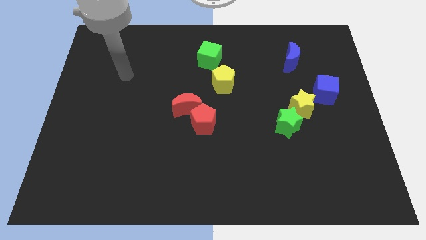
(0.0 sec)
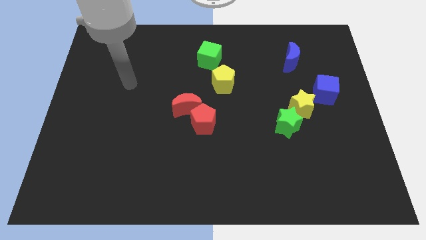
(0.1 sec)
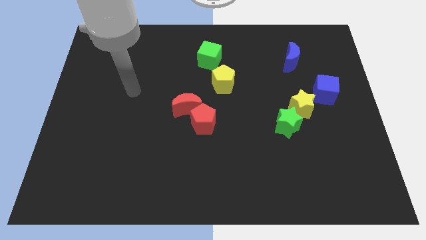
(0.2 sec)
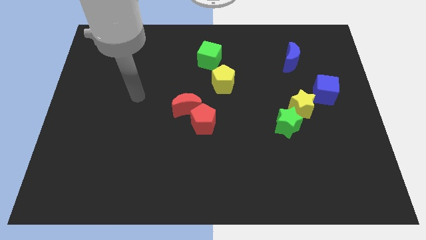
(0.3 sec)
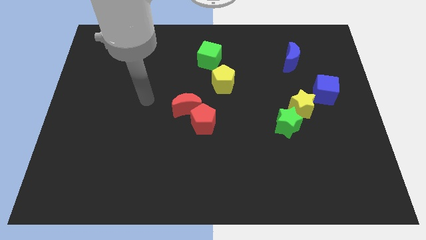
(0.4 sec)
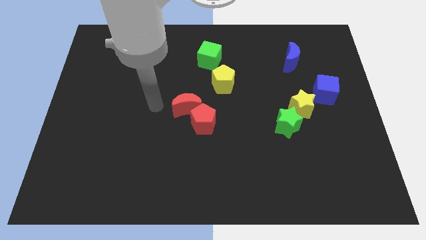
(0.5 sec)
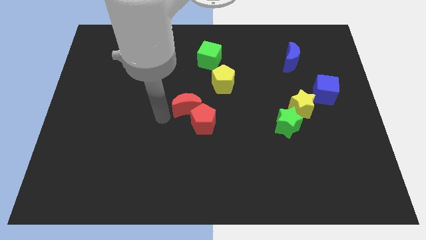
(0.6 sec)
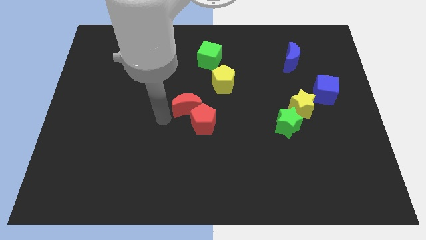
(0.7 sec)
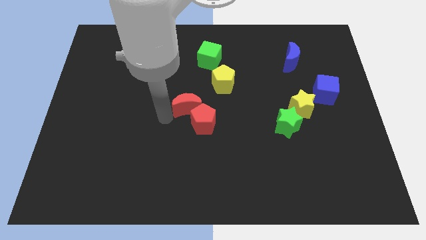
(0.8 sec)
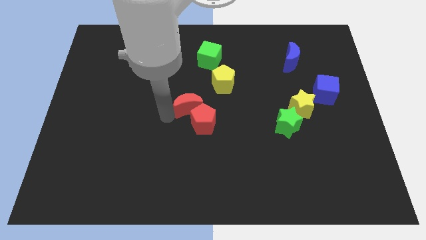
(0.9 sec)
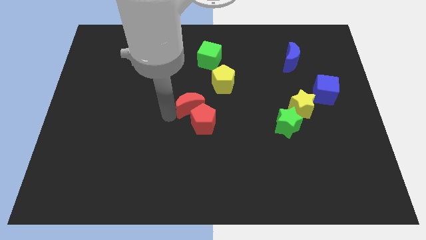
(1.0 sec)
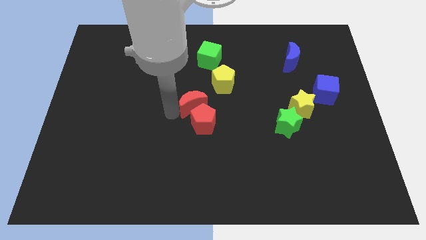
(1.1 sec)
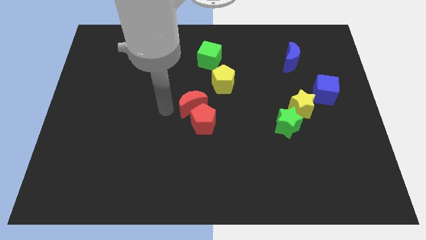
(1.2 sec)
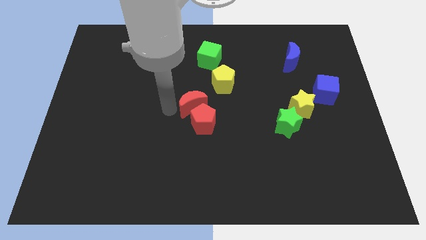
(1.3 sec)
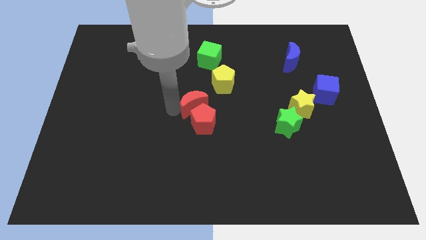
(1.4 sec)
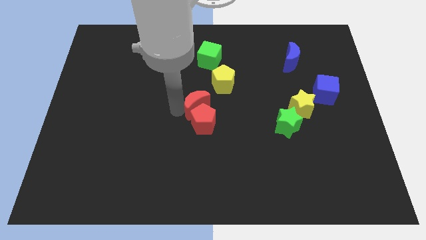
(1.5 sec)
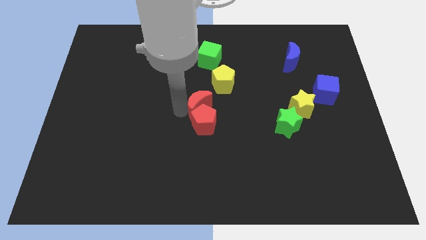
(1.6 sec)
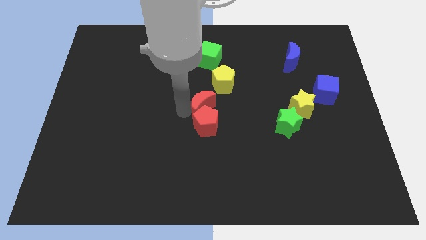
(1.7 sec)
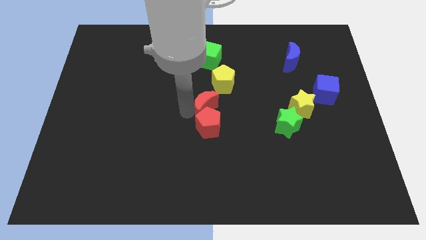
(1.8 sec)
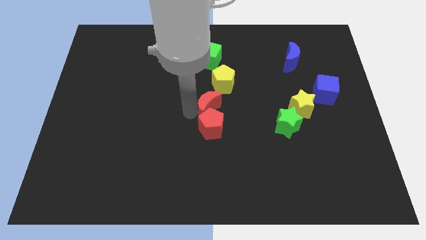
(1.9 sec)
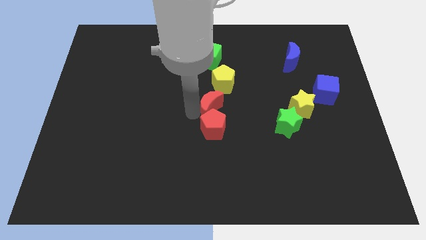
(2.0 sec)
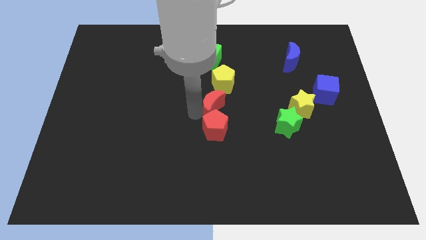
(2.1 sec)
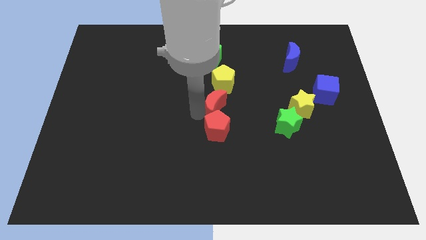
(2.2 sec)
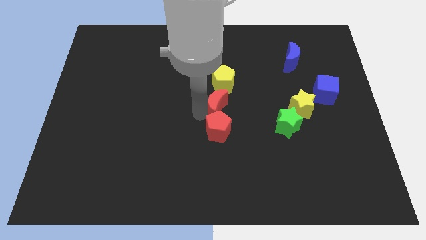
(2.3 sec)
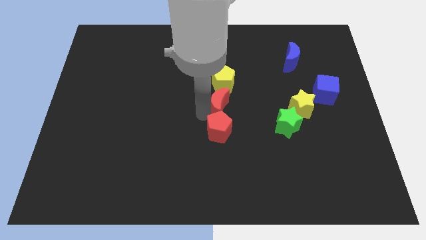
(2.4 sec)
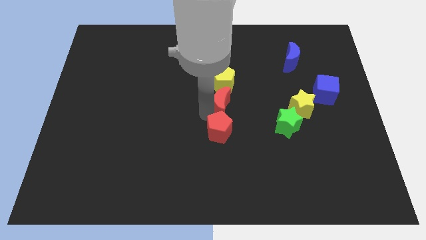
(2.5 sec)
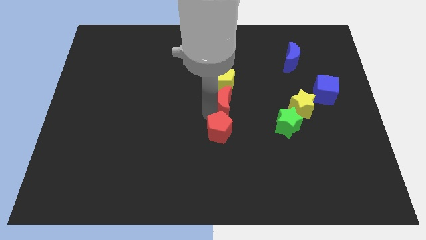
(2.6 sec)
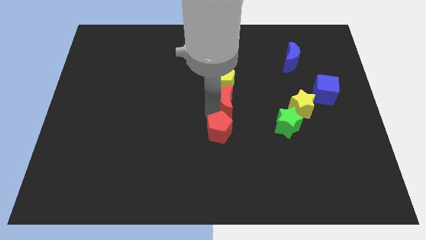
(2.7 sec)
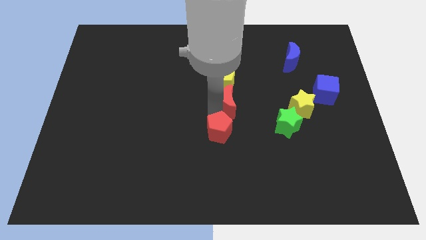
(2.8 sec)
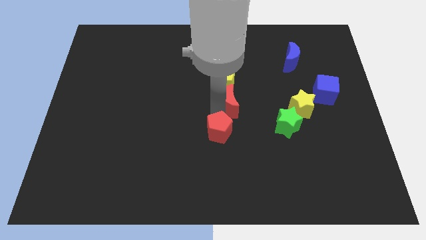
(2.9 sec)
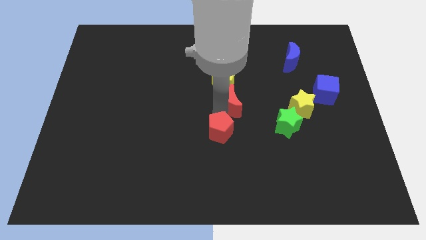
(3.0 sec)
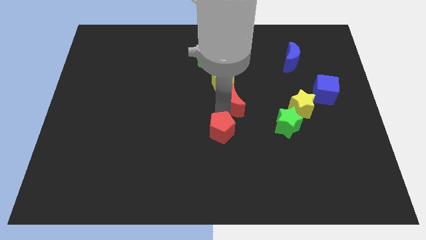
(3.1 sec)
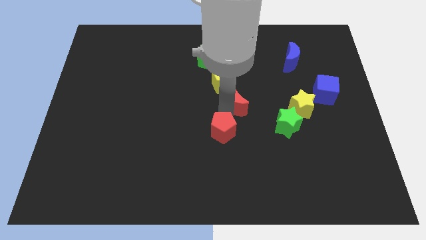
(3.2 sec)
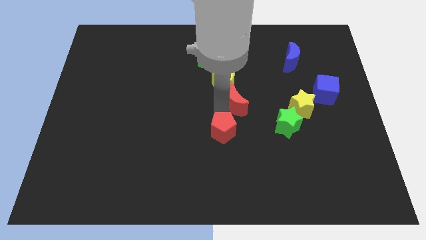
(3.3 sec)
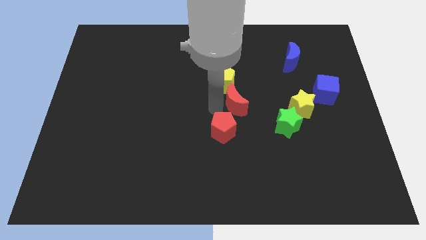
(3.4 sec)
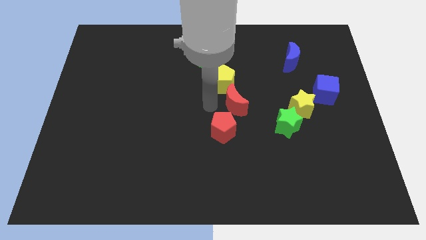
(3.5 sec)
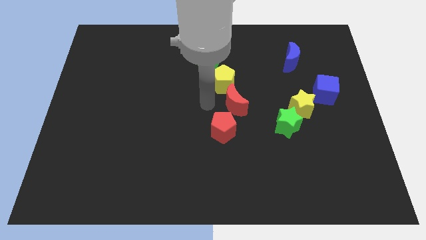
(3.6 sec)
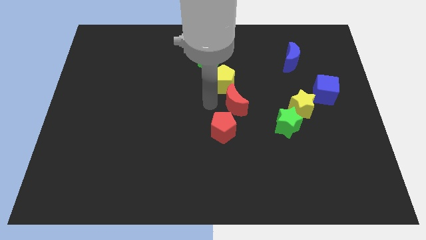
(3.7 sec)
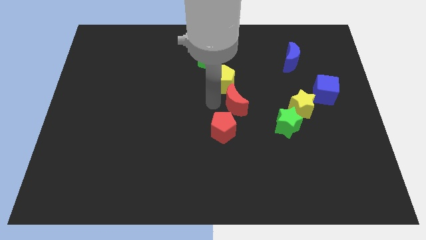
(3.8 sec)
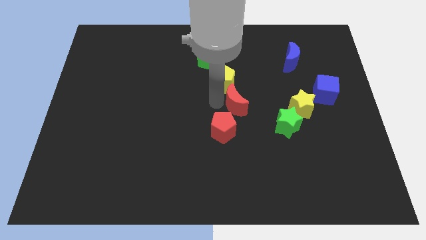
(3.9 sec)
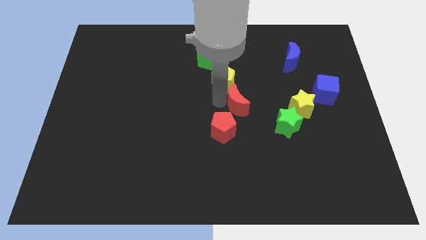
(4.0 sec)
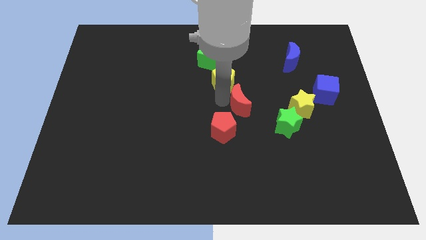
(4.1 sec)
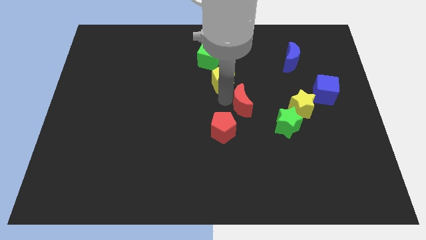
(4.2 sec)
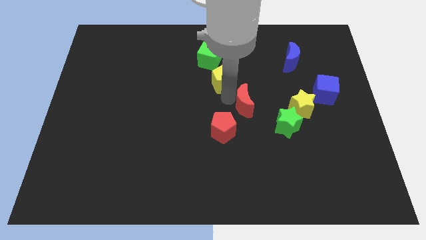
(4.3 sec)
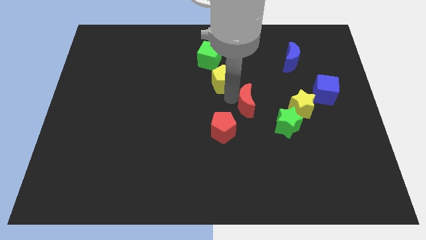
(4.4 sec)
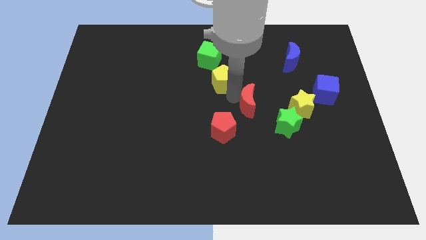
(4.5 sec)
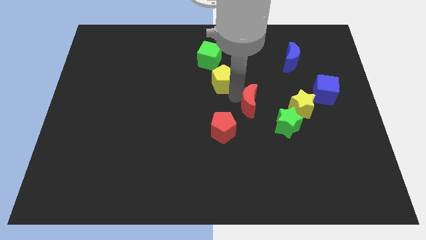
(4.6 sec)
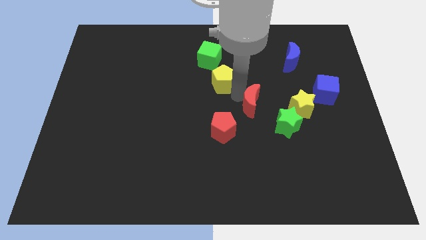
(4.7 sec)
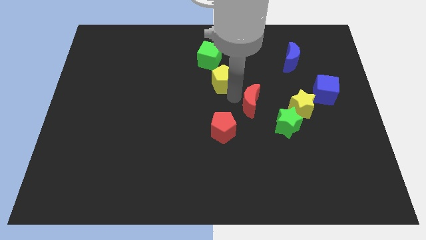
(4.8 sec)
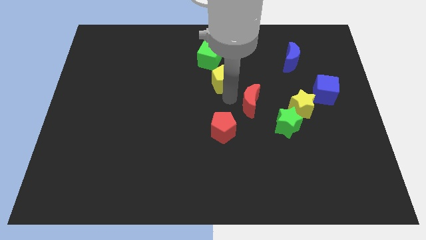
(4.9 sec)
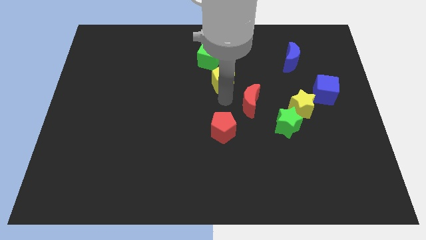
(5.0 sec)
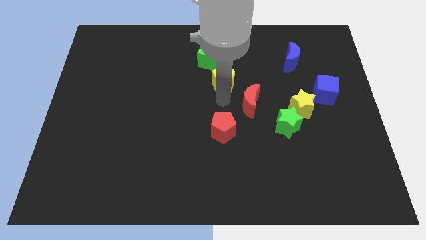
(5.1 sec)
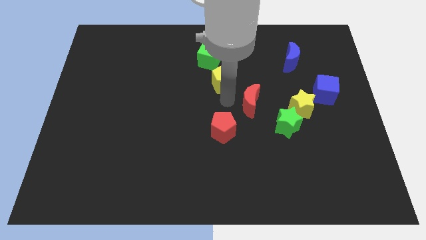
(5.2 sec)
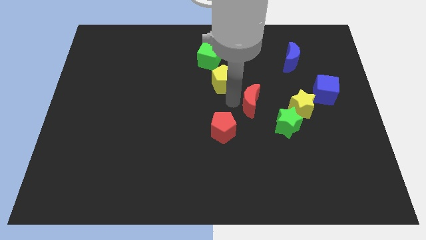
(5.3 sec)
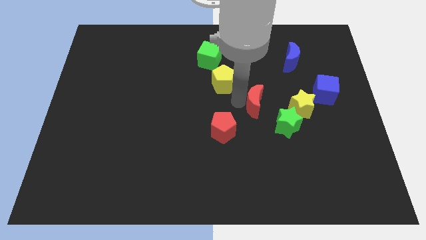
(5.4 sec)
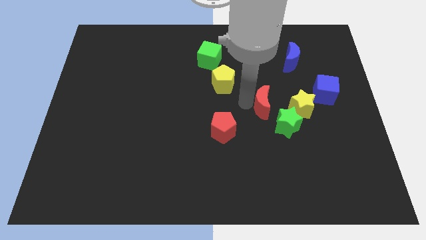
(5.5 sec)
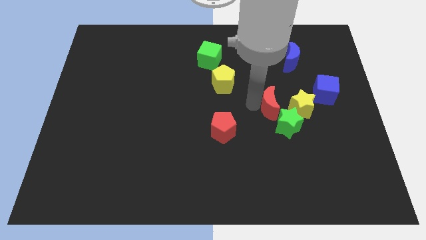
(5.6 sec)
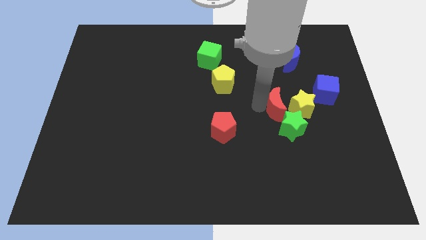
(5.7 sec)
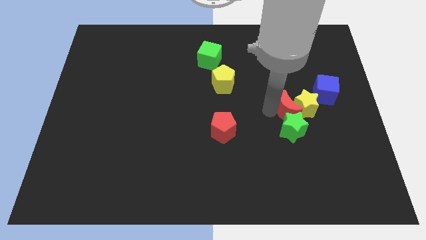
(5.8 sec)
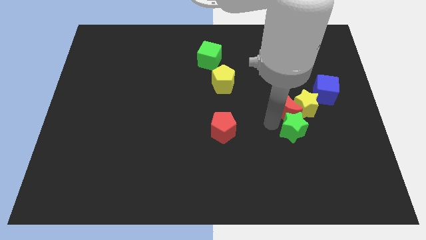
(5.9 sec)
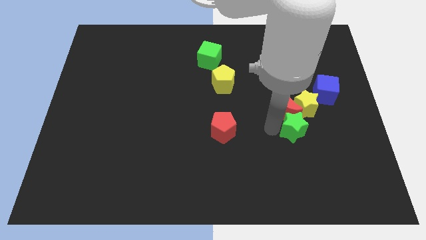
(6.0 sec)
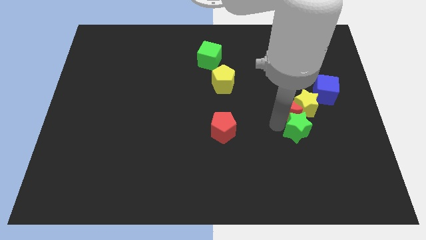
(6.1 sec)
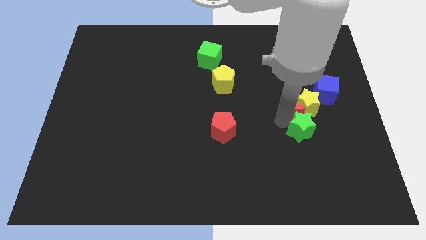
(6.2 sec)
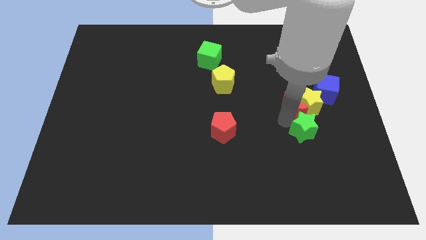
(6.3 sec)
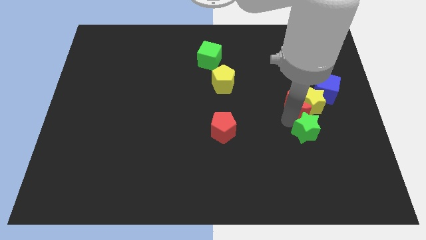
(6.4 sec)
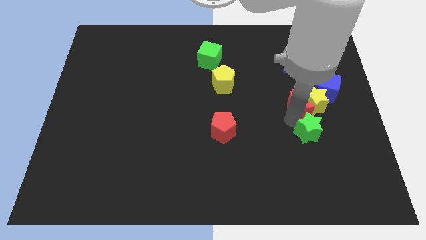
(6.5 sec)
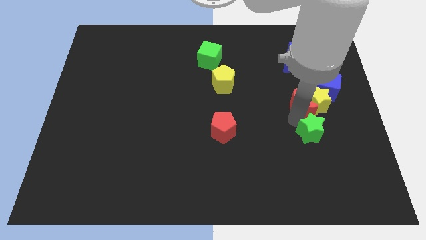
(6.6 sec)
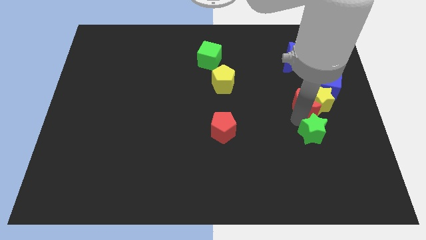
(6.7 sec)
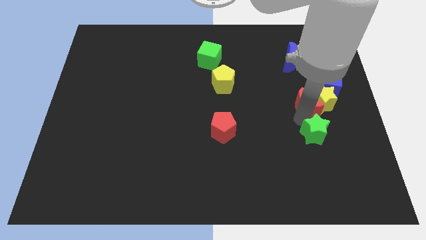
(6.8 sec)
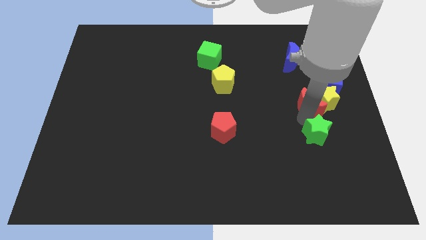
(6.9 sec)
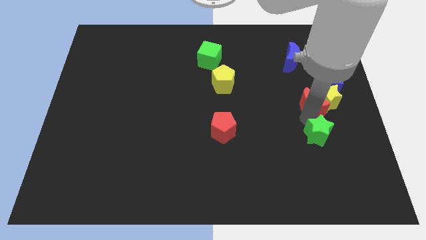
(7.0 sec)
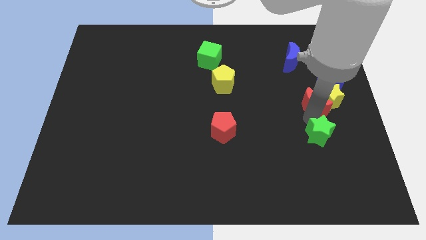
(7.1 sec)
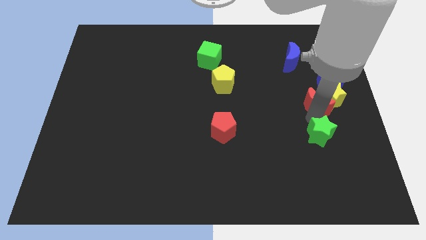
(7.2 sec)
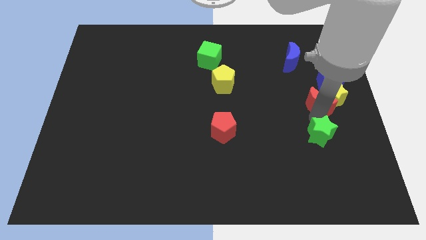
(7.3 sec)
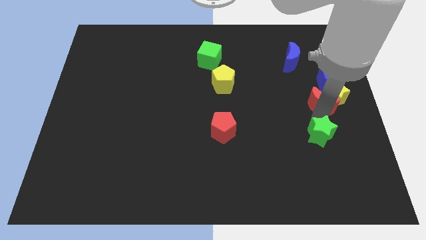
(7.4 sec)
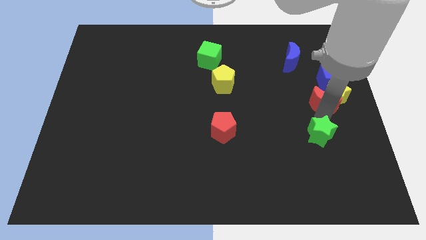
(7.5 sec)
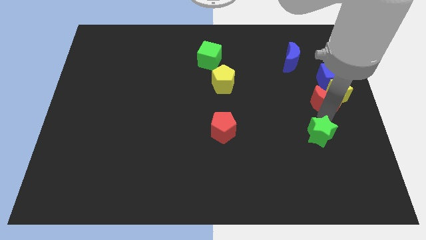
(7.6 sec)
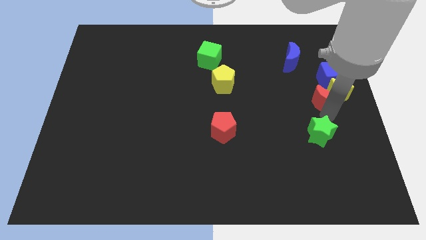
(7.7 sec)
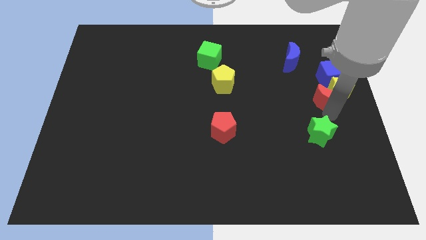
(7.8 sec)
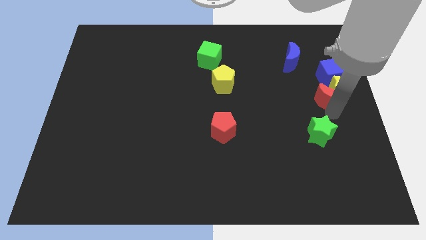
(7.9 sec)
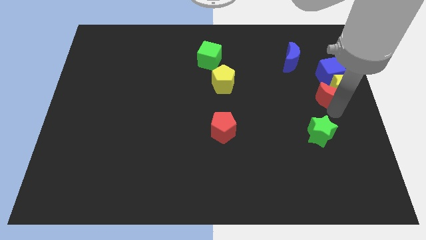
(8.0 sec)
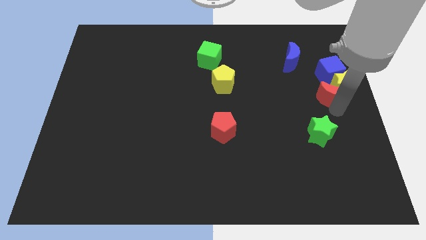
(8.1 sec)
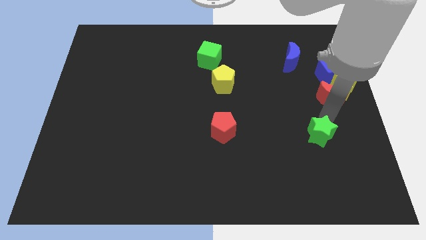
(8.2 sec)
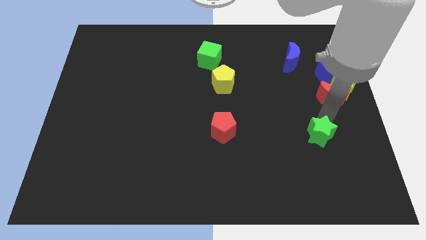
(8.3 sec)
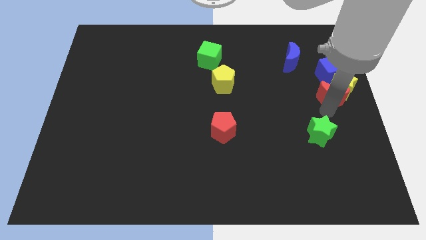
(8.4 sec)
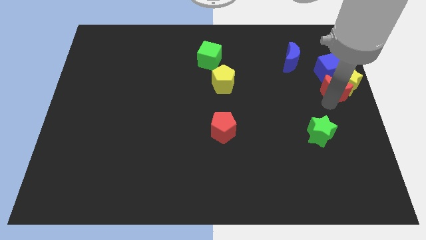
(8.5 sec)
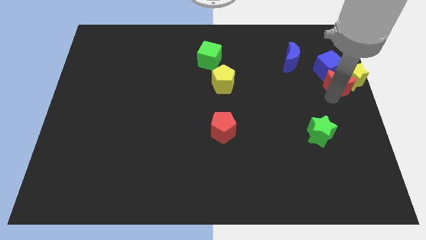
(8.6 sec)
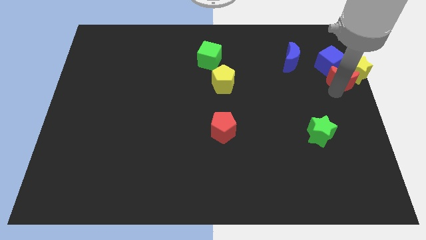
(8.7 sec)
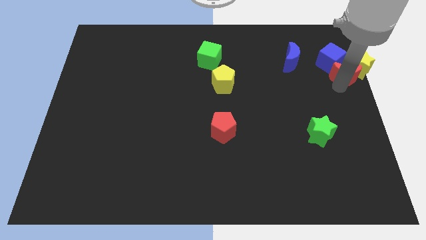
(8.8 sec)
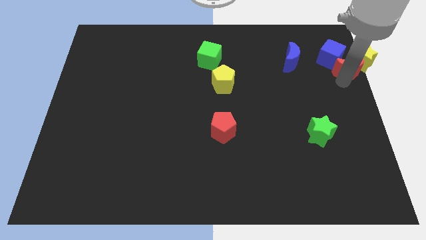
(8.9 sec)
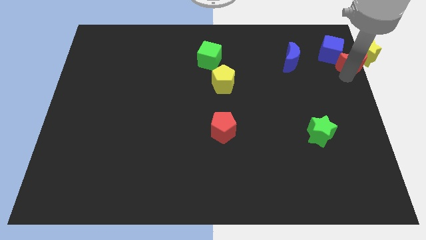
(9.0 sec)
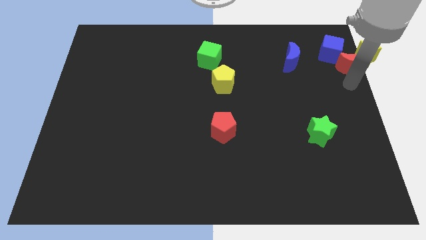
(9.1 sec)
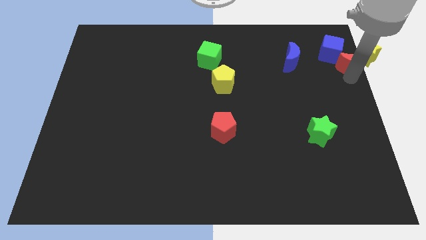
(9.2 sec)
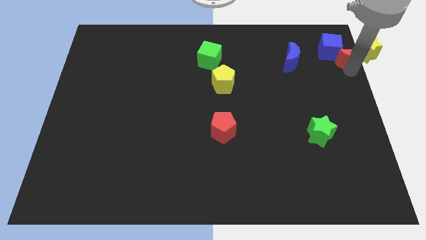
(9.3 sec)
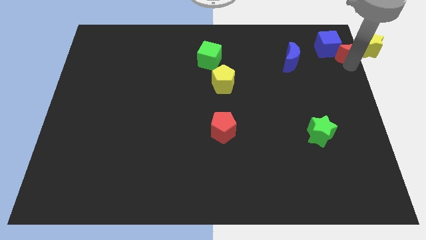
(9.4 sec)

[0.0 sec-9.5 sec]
put the red moon to the upper right corner
